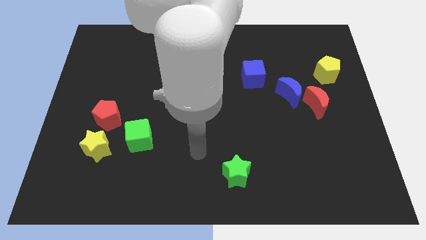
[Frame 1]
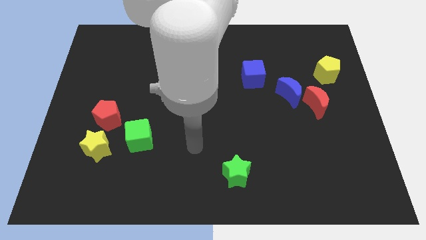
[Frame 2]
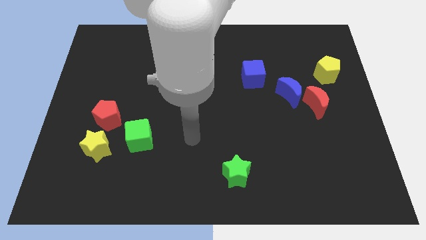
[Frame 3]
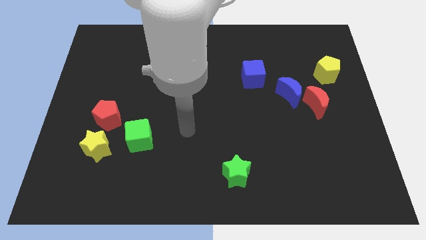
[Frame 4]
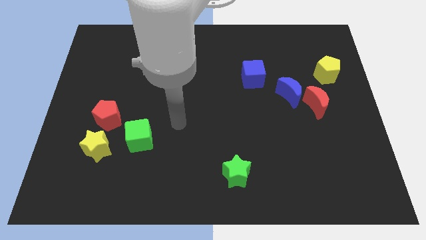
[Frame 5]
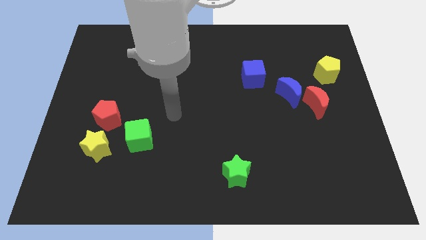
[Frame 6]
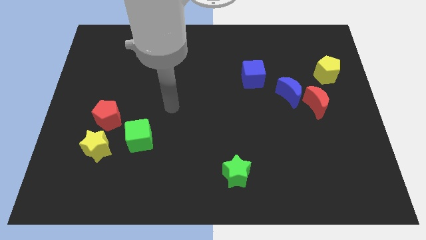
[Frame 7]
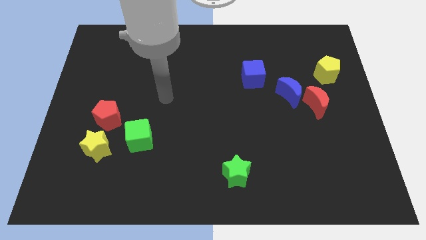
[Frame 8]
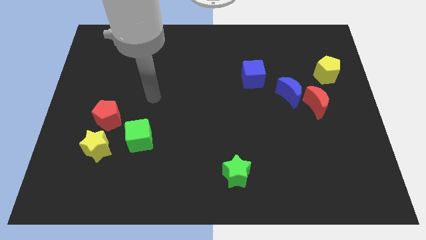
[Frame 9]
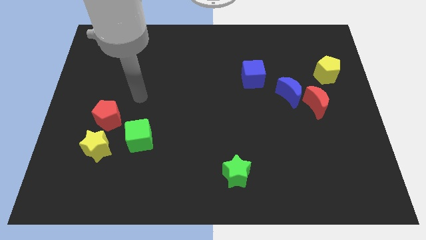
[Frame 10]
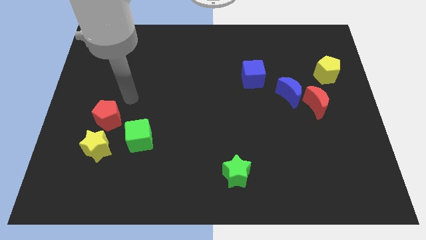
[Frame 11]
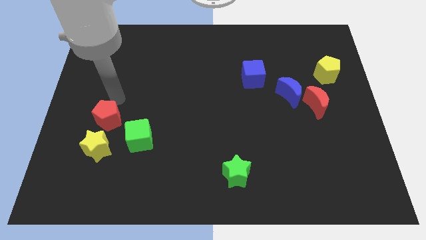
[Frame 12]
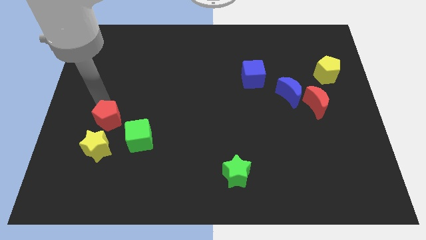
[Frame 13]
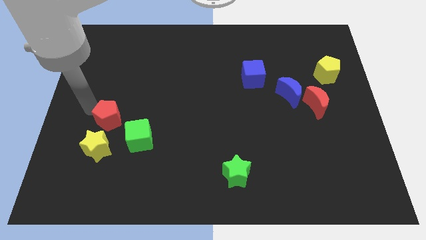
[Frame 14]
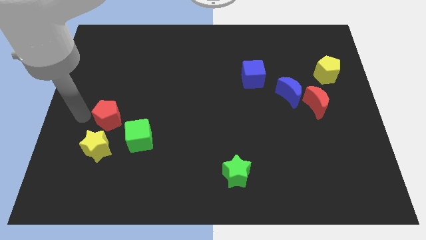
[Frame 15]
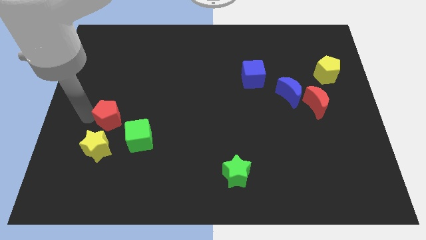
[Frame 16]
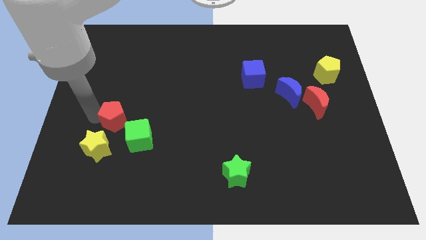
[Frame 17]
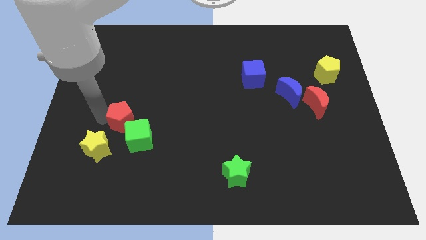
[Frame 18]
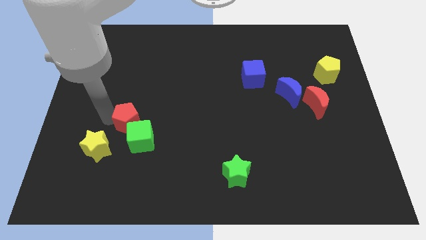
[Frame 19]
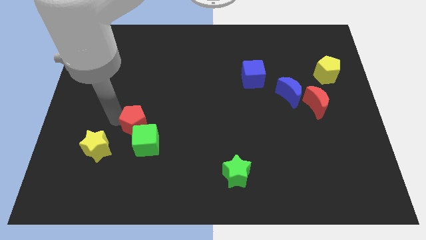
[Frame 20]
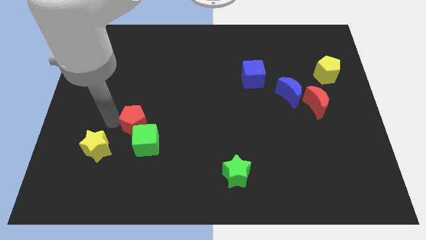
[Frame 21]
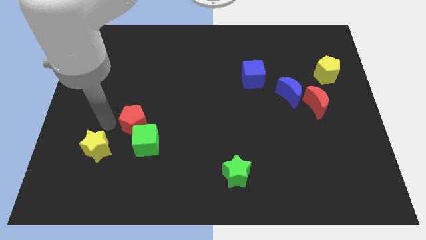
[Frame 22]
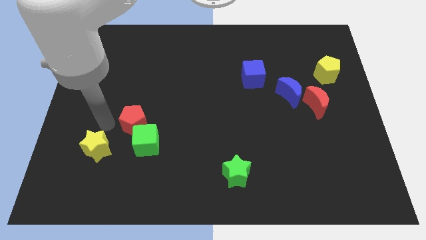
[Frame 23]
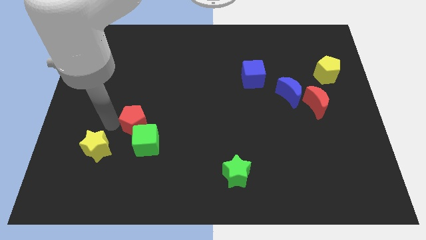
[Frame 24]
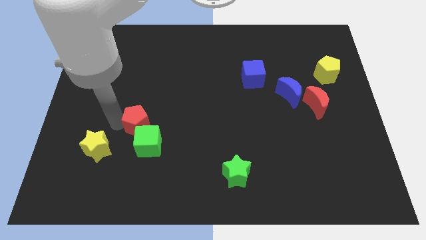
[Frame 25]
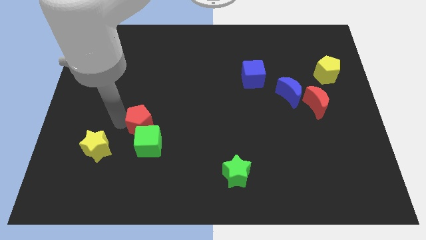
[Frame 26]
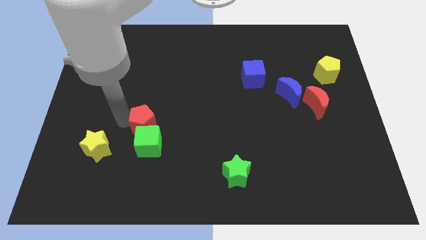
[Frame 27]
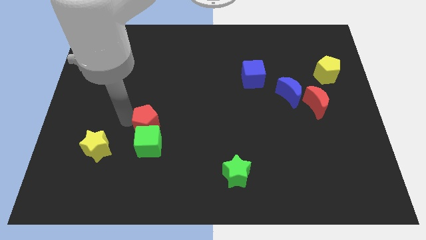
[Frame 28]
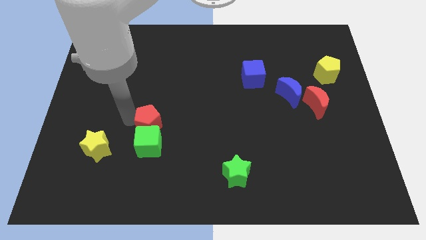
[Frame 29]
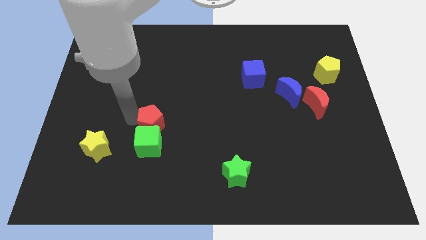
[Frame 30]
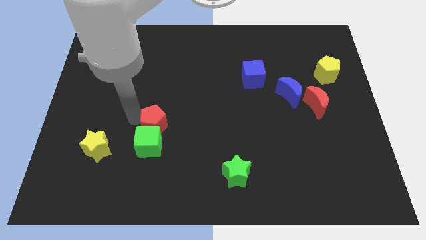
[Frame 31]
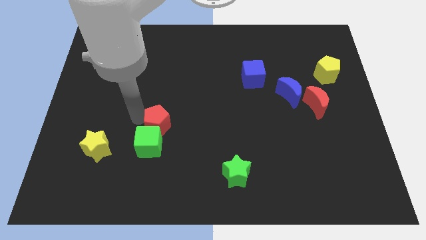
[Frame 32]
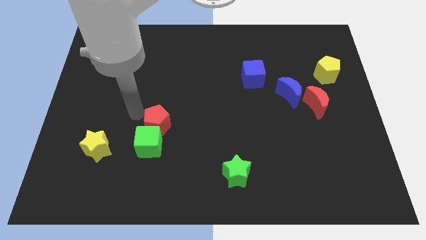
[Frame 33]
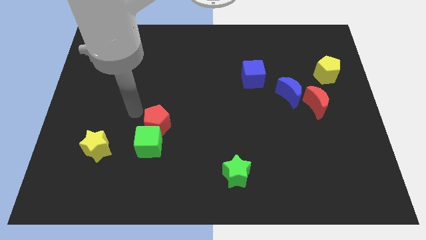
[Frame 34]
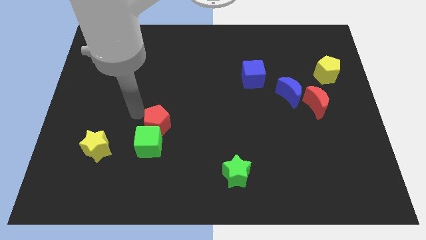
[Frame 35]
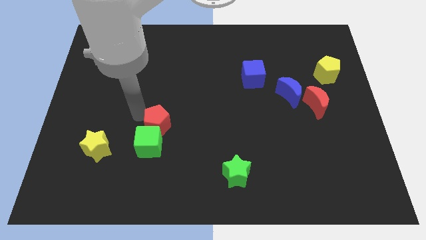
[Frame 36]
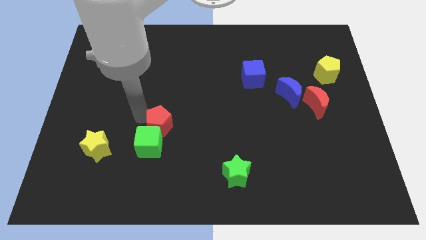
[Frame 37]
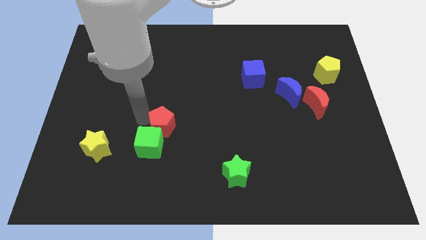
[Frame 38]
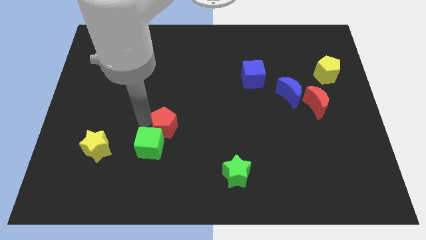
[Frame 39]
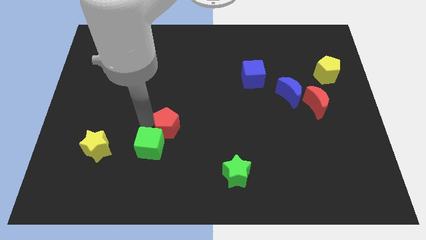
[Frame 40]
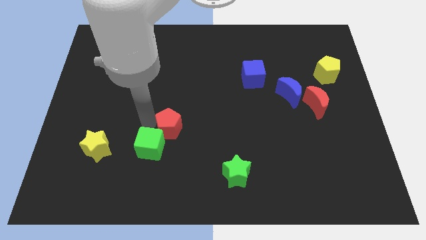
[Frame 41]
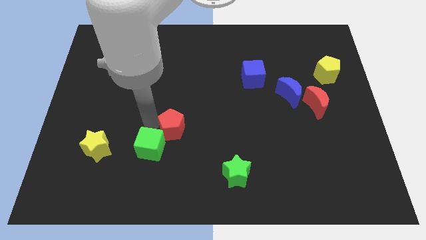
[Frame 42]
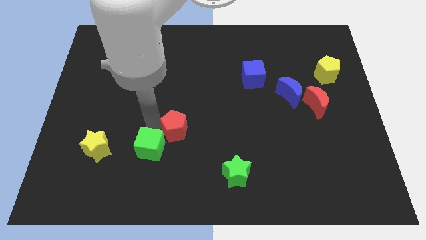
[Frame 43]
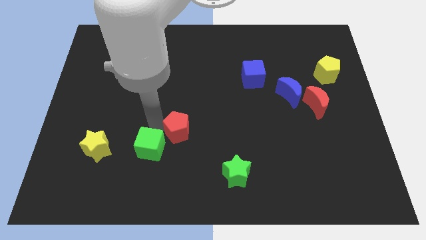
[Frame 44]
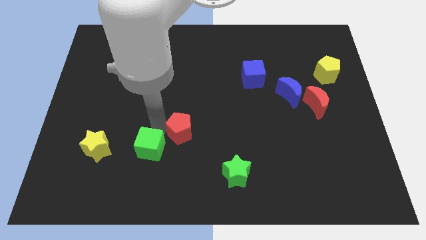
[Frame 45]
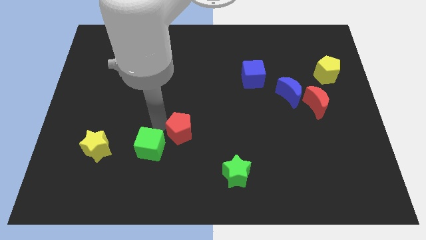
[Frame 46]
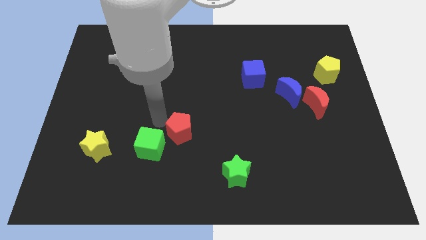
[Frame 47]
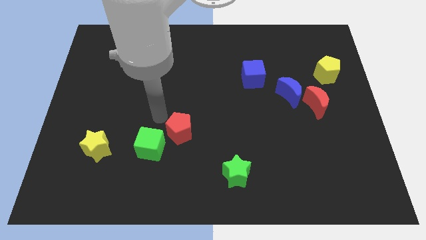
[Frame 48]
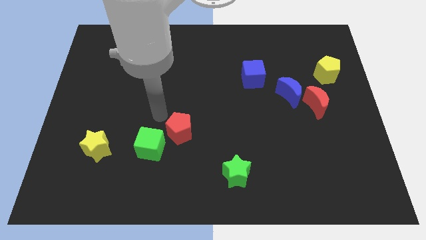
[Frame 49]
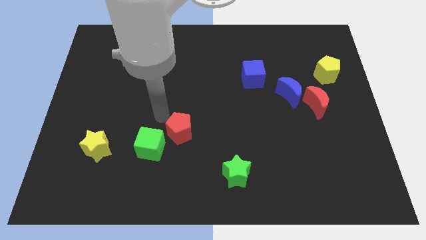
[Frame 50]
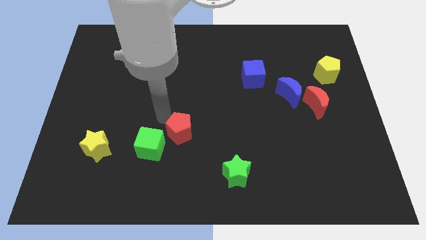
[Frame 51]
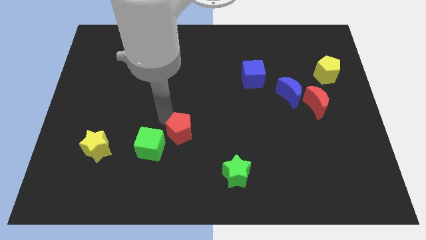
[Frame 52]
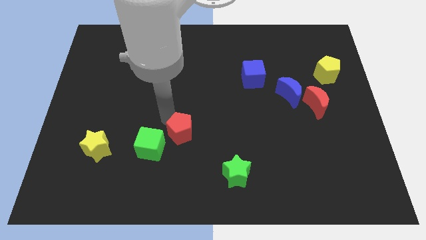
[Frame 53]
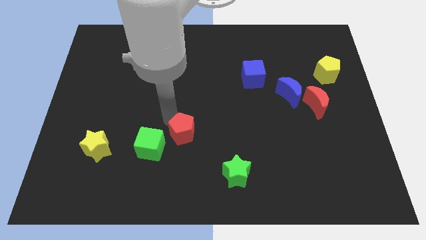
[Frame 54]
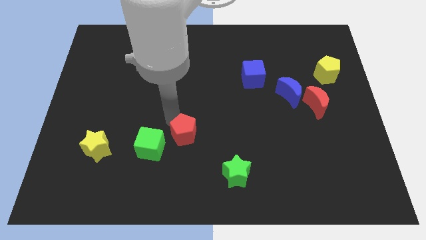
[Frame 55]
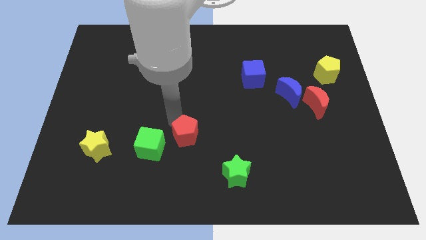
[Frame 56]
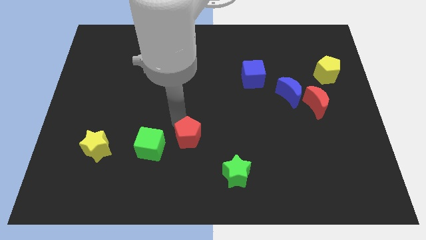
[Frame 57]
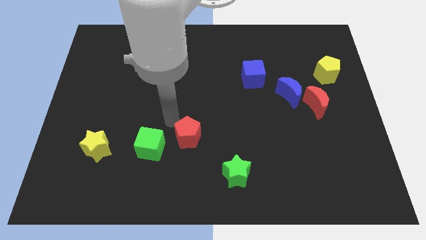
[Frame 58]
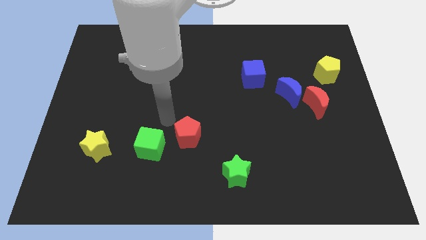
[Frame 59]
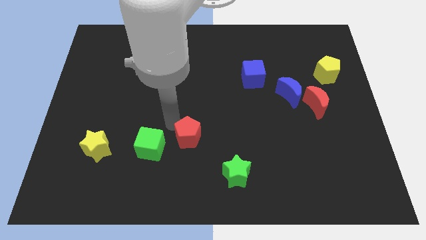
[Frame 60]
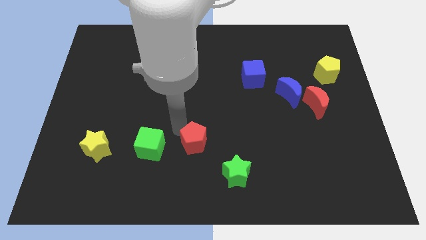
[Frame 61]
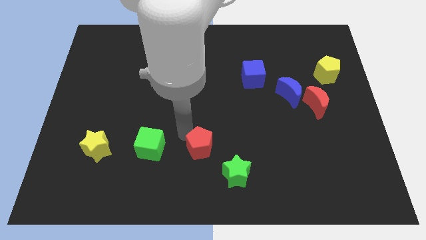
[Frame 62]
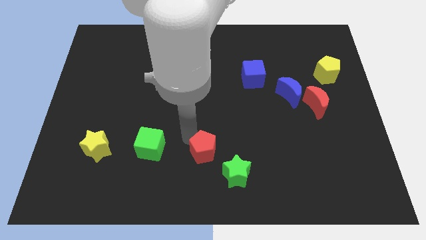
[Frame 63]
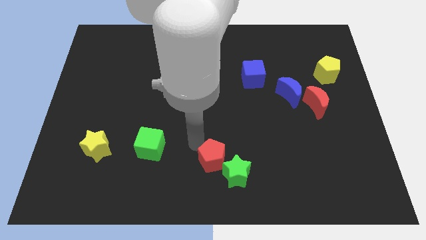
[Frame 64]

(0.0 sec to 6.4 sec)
push the red pentagon towards the green star
